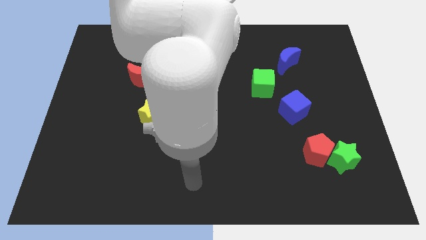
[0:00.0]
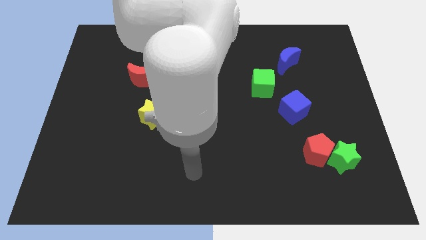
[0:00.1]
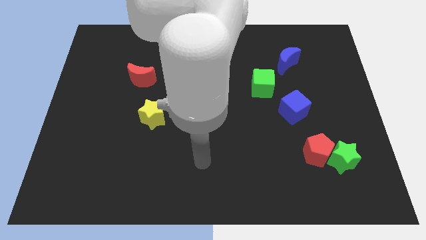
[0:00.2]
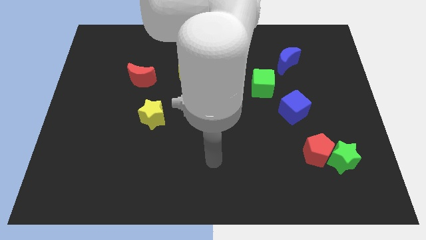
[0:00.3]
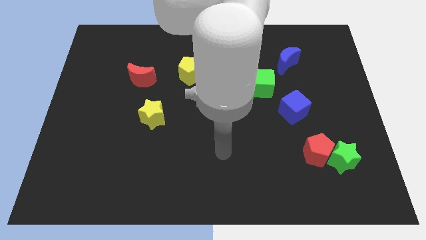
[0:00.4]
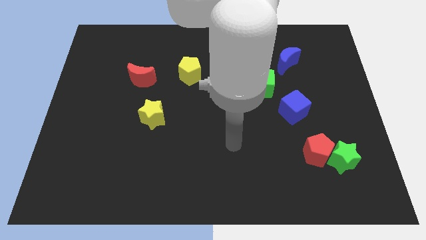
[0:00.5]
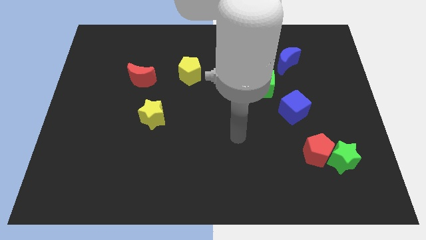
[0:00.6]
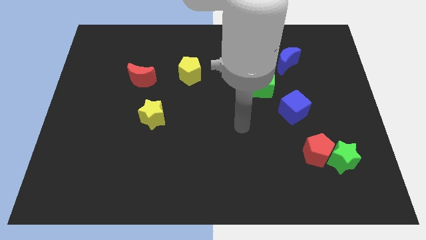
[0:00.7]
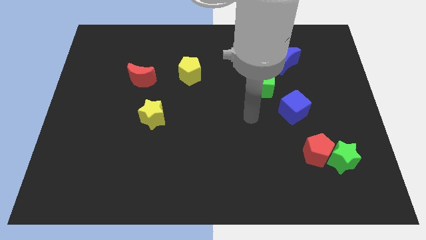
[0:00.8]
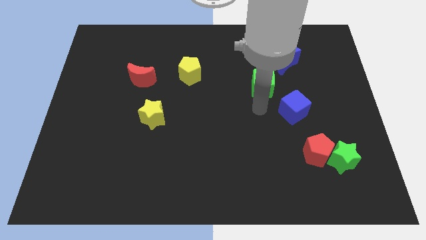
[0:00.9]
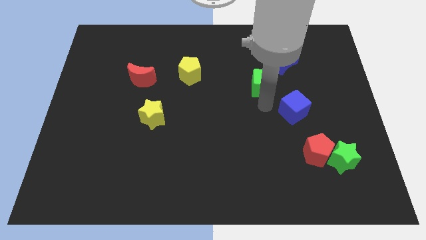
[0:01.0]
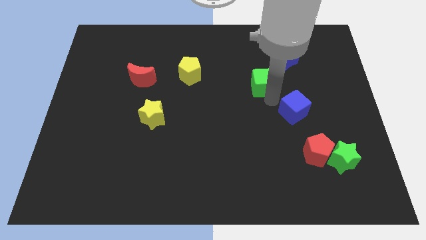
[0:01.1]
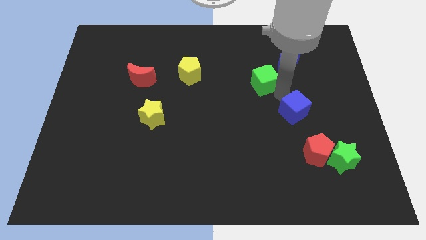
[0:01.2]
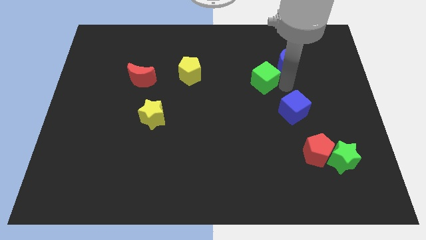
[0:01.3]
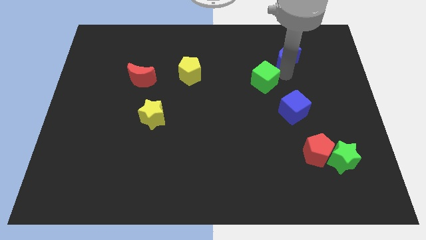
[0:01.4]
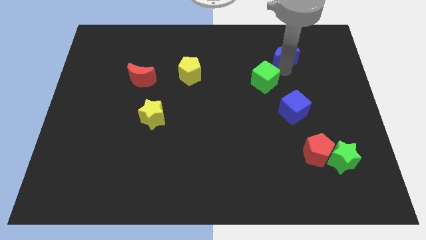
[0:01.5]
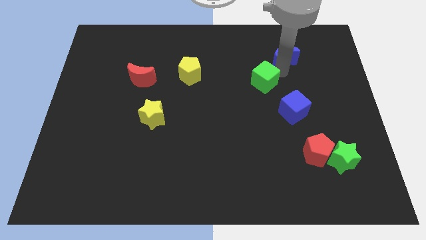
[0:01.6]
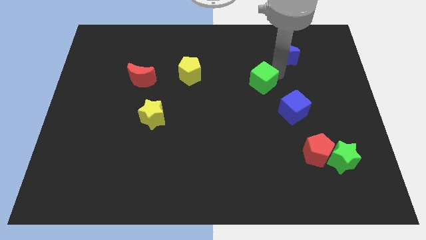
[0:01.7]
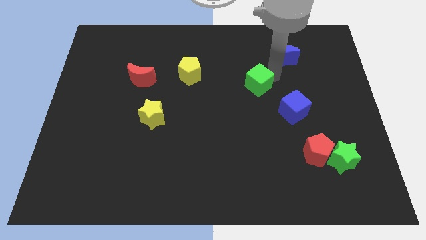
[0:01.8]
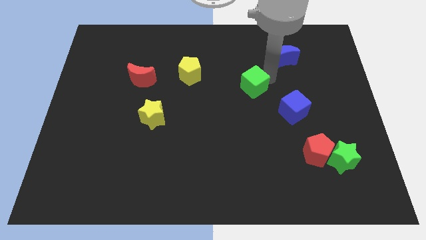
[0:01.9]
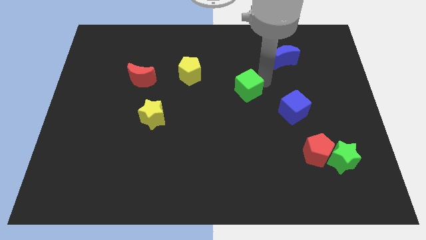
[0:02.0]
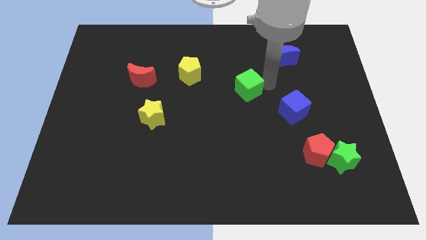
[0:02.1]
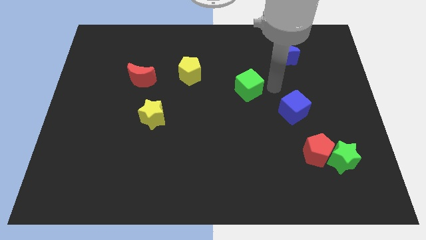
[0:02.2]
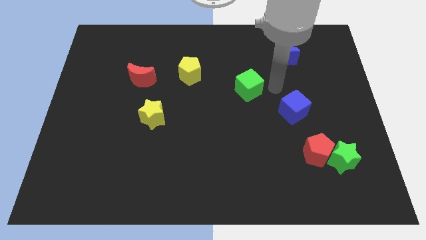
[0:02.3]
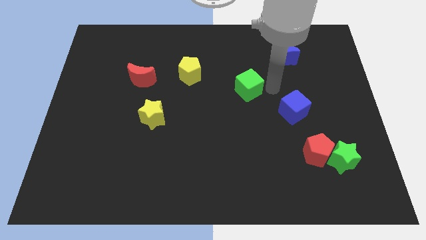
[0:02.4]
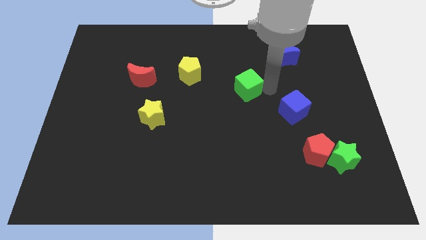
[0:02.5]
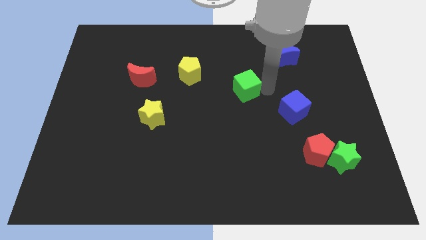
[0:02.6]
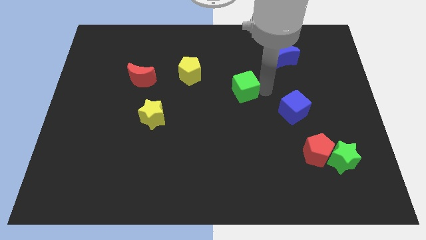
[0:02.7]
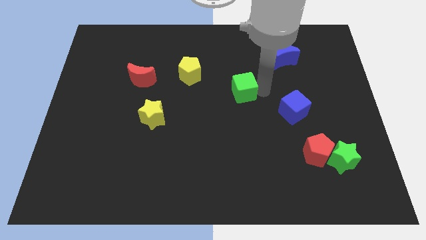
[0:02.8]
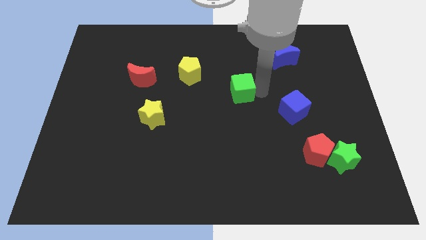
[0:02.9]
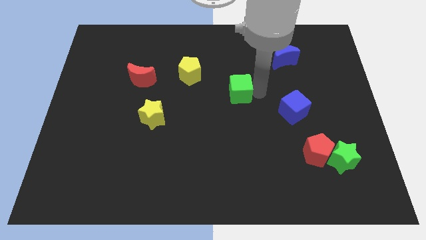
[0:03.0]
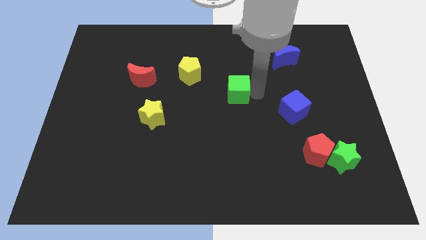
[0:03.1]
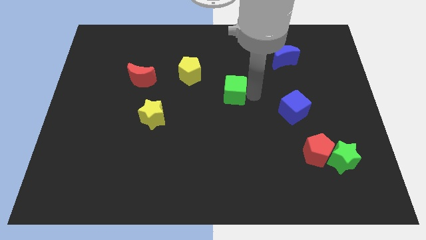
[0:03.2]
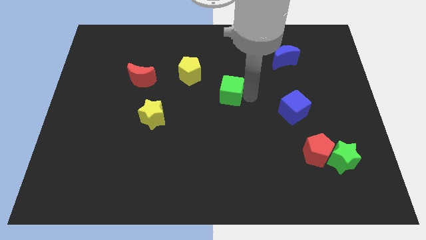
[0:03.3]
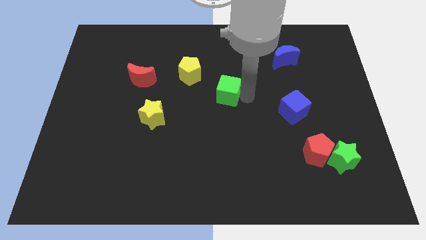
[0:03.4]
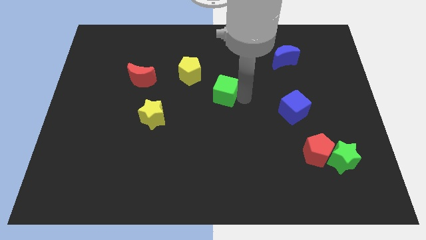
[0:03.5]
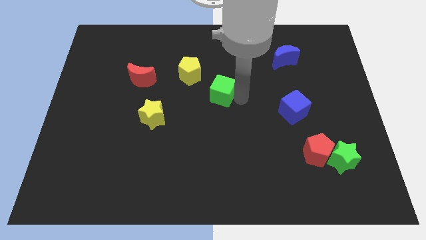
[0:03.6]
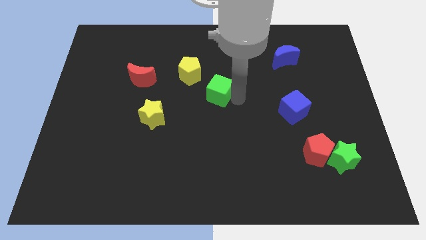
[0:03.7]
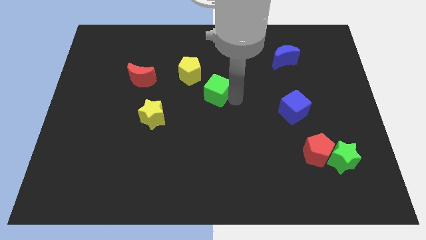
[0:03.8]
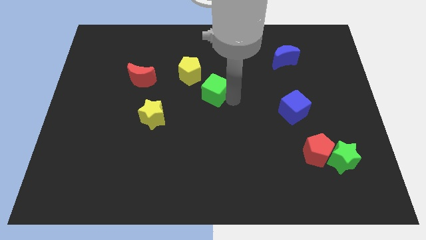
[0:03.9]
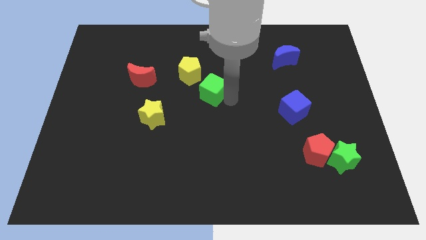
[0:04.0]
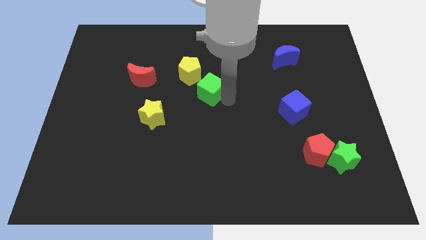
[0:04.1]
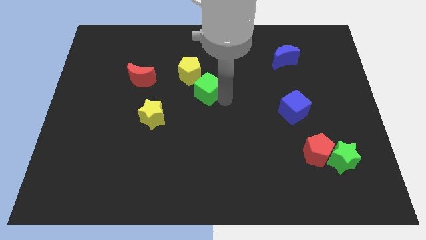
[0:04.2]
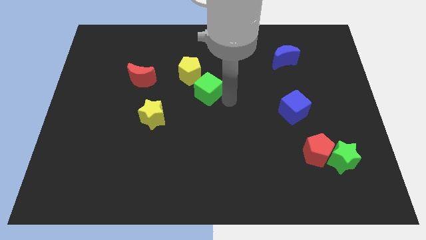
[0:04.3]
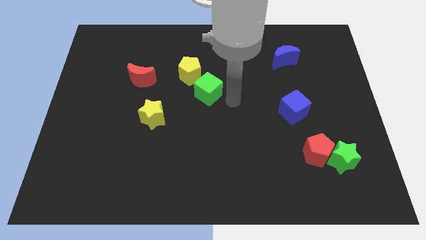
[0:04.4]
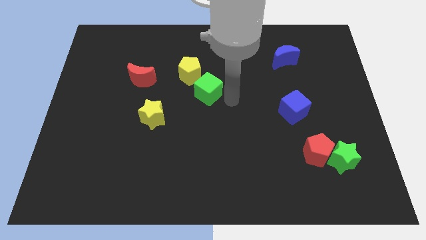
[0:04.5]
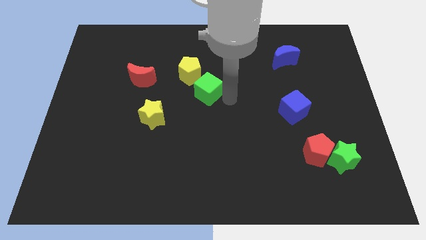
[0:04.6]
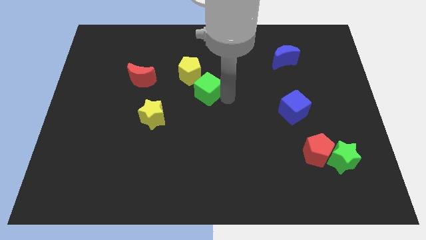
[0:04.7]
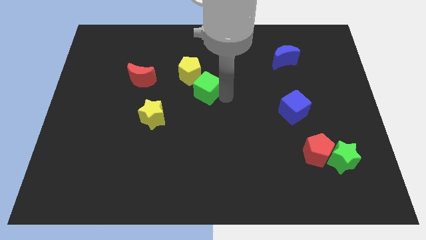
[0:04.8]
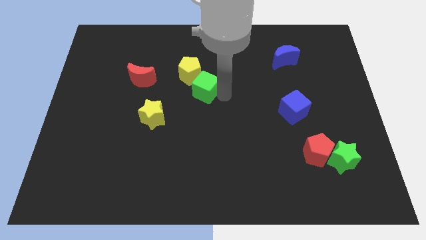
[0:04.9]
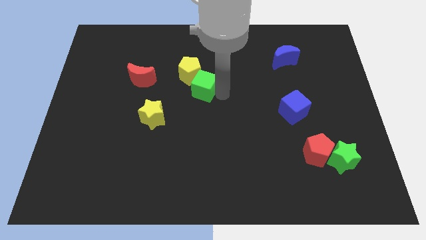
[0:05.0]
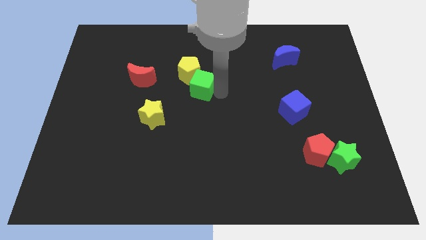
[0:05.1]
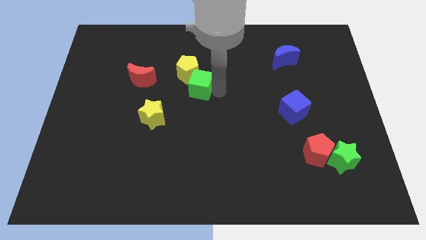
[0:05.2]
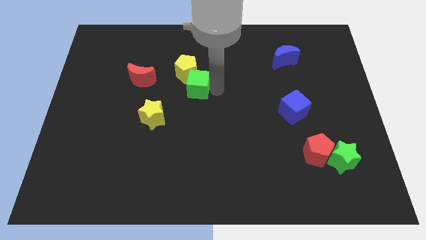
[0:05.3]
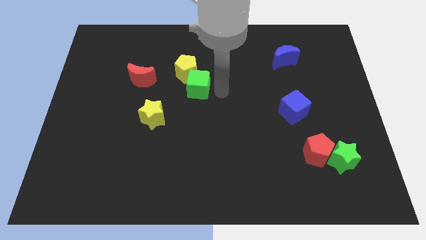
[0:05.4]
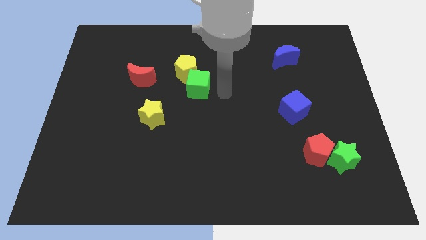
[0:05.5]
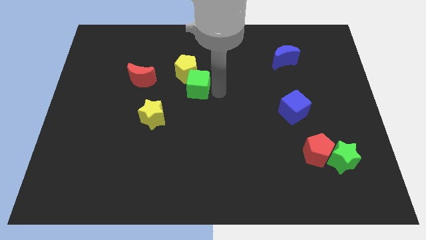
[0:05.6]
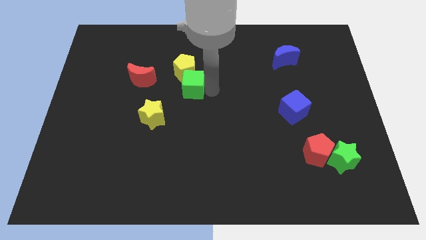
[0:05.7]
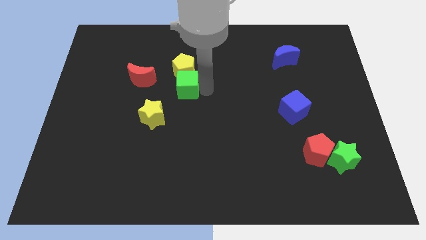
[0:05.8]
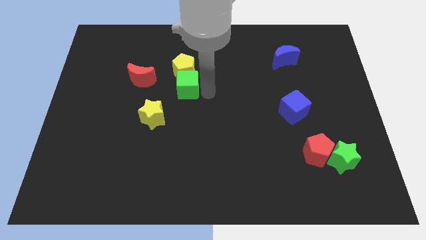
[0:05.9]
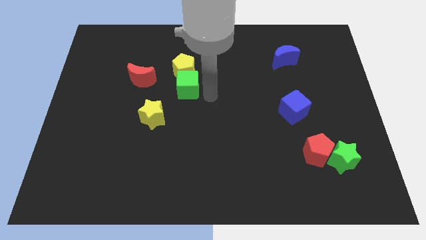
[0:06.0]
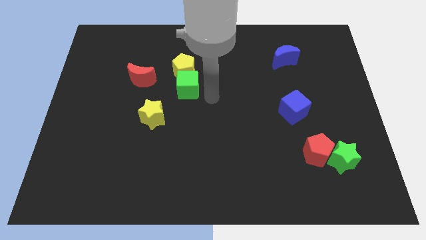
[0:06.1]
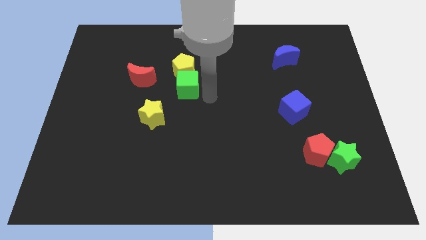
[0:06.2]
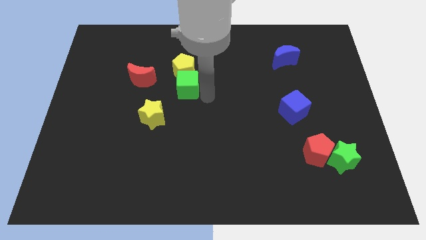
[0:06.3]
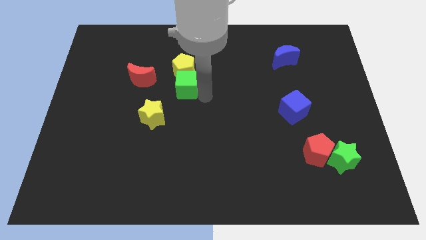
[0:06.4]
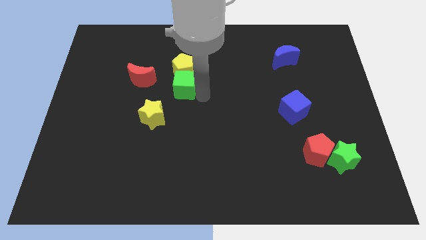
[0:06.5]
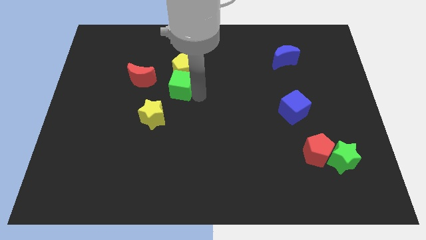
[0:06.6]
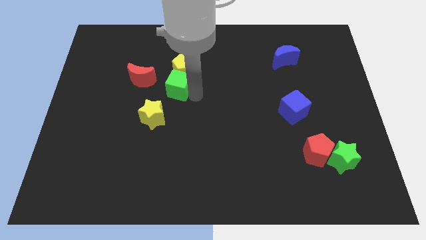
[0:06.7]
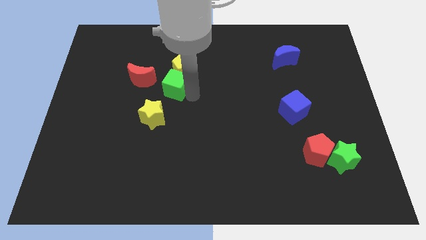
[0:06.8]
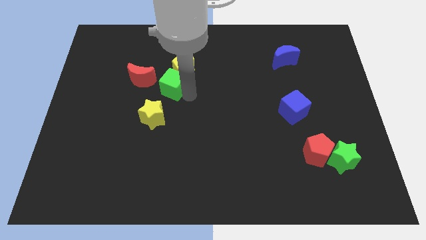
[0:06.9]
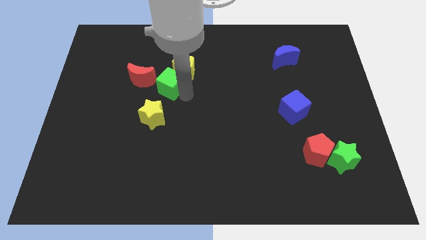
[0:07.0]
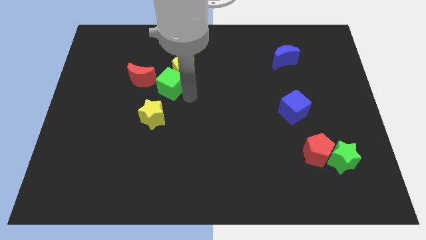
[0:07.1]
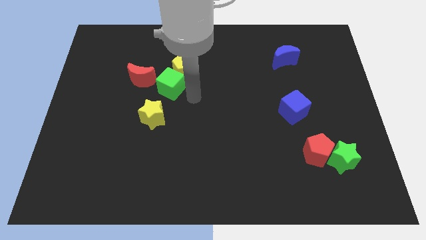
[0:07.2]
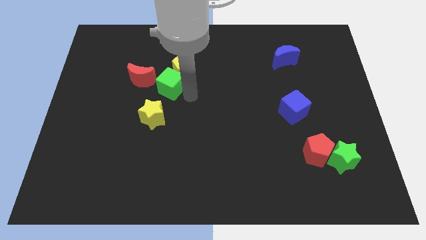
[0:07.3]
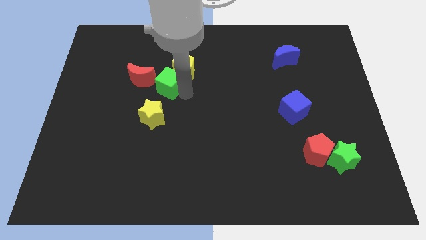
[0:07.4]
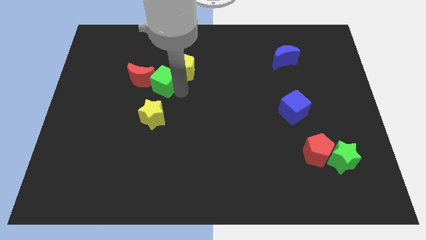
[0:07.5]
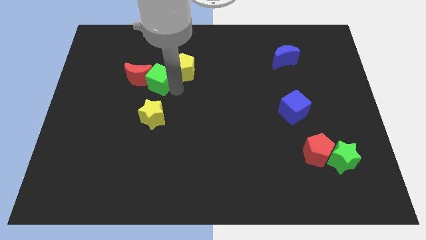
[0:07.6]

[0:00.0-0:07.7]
push the green cube towards the red moon

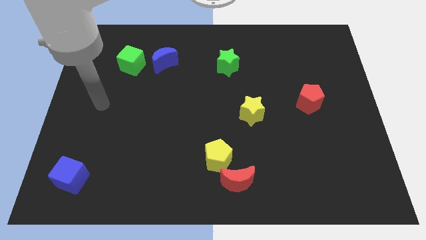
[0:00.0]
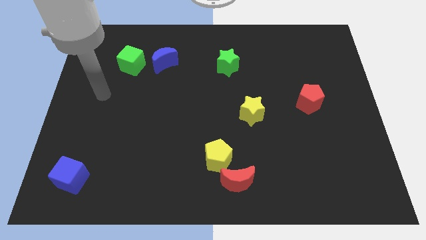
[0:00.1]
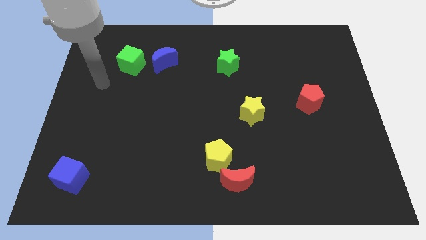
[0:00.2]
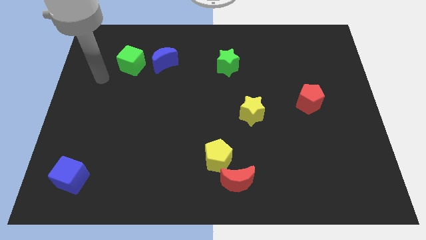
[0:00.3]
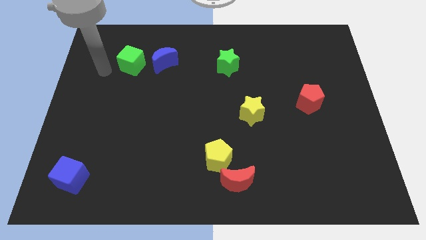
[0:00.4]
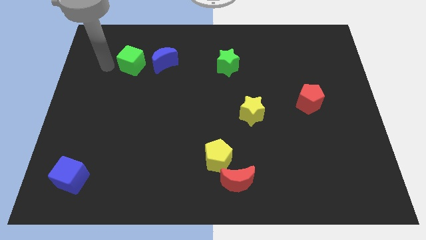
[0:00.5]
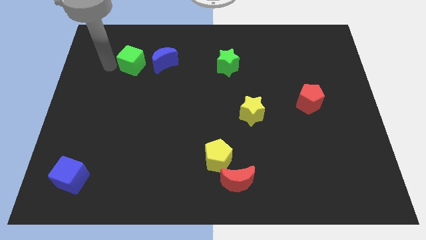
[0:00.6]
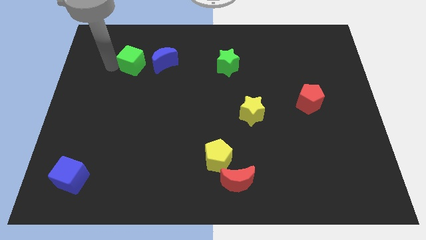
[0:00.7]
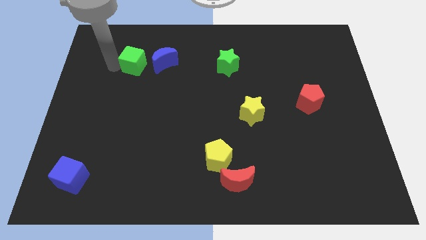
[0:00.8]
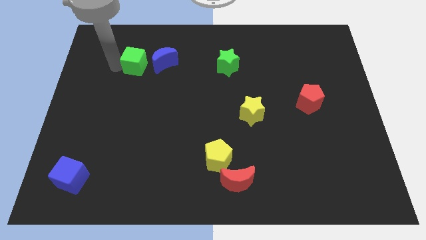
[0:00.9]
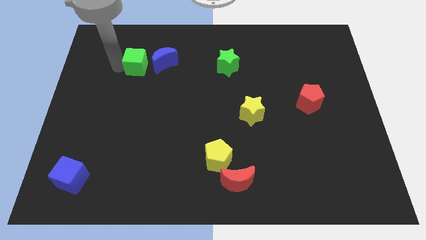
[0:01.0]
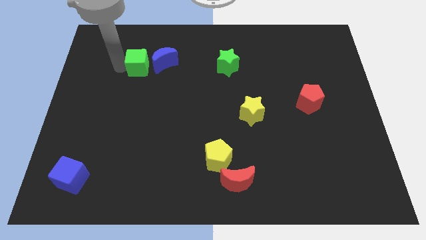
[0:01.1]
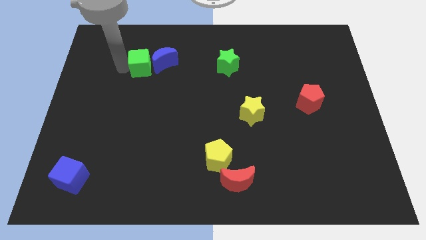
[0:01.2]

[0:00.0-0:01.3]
slide the green cube next to the blue moon
